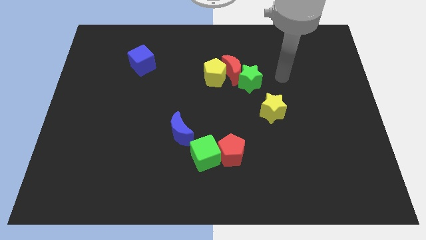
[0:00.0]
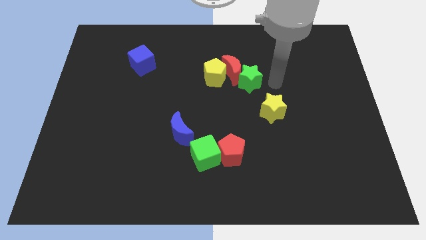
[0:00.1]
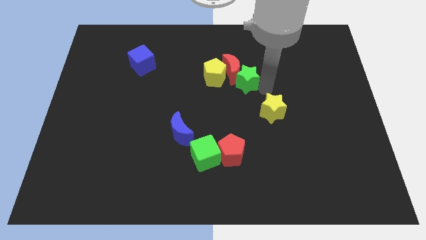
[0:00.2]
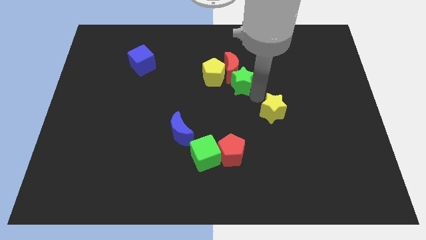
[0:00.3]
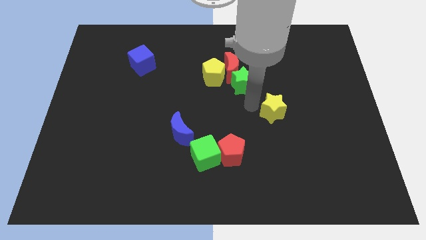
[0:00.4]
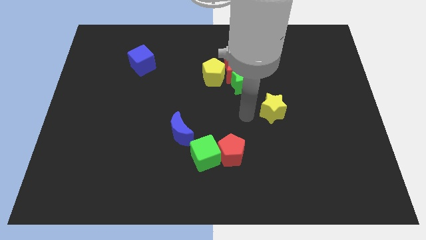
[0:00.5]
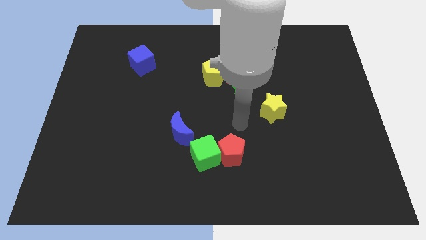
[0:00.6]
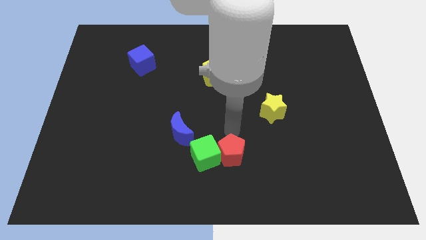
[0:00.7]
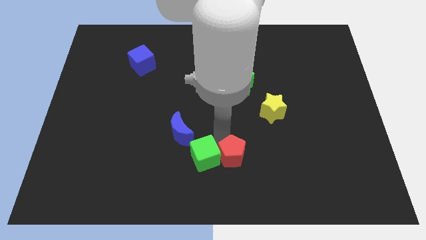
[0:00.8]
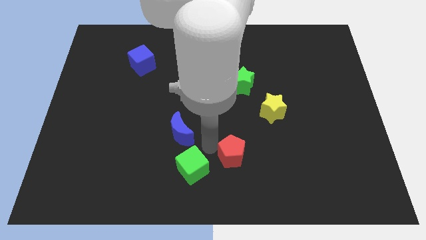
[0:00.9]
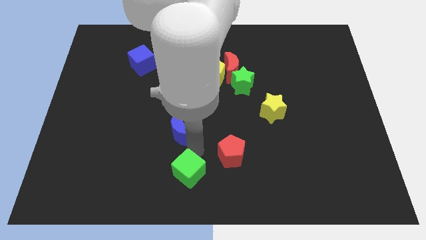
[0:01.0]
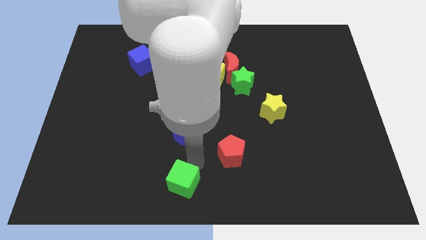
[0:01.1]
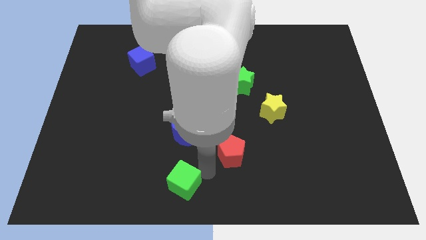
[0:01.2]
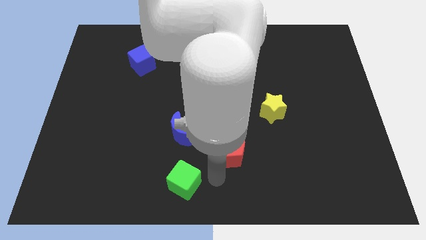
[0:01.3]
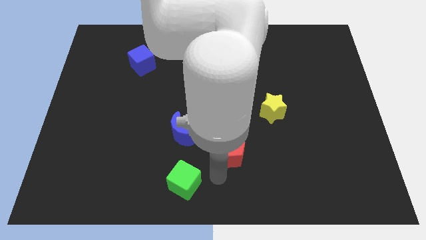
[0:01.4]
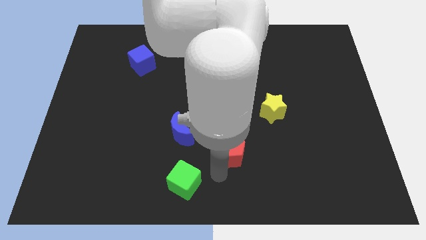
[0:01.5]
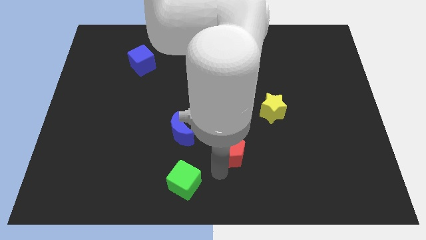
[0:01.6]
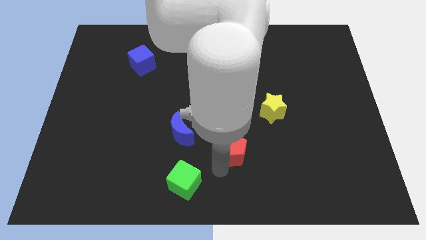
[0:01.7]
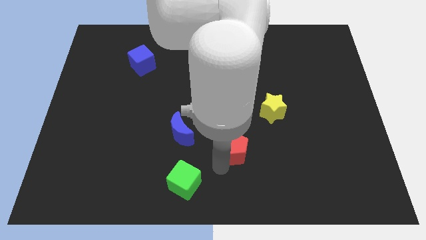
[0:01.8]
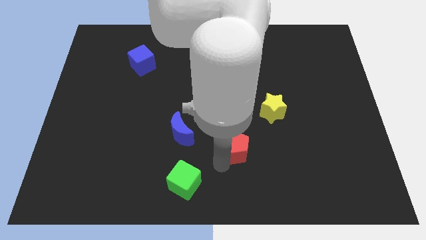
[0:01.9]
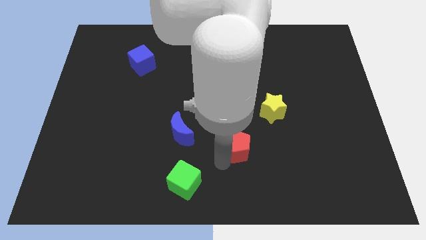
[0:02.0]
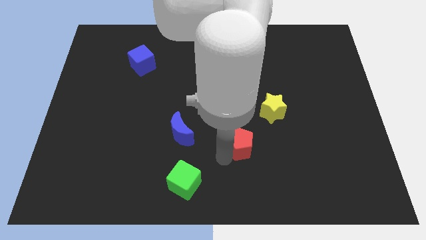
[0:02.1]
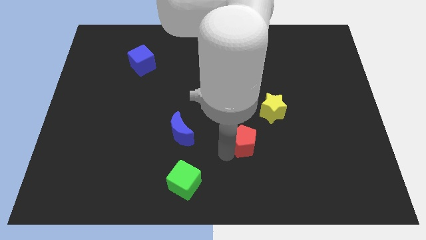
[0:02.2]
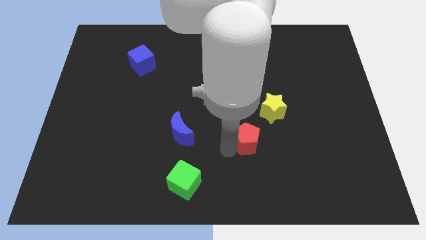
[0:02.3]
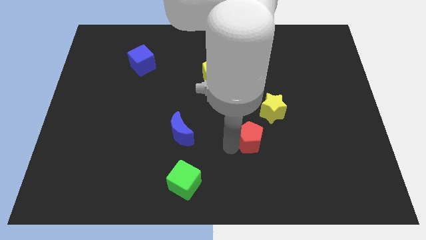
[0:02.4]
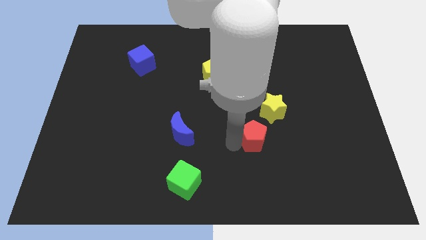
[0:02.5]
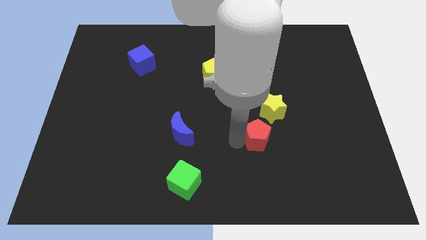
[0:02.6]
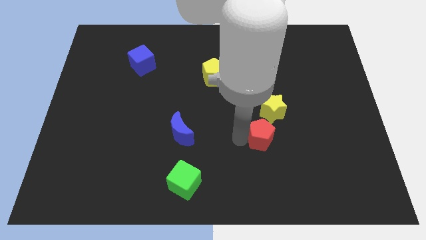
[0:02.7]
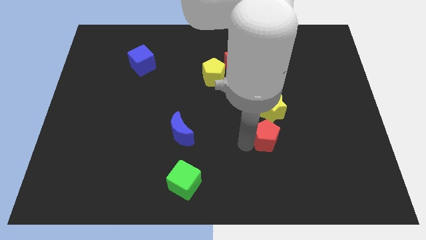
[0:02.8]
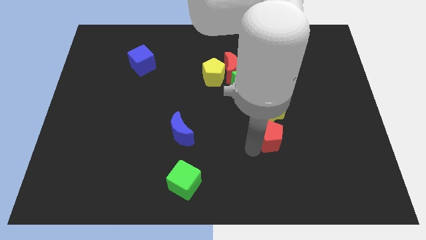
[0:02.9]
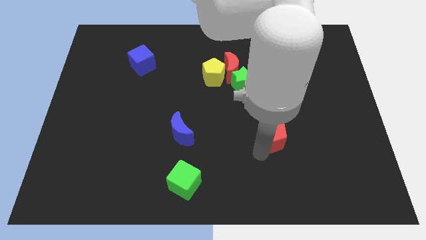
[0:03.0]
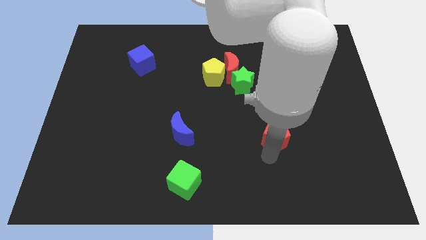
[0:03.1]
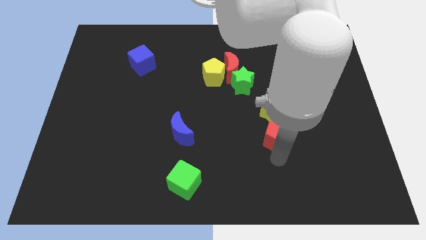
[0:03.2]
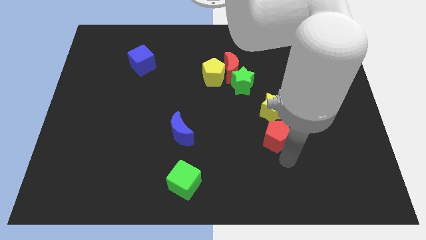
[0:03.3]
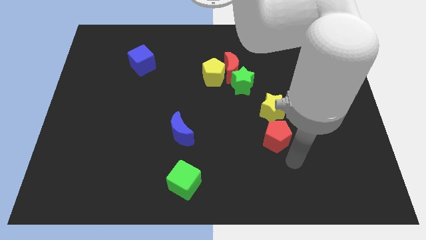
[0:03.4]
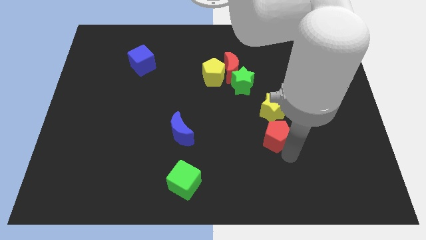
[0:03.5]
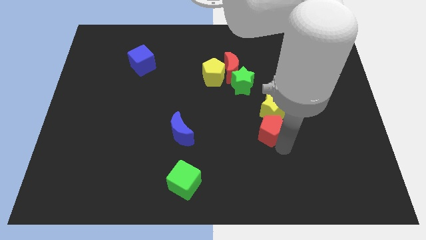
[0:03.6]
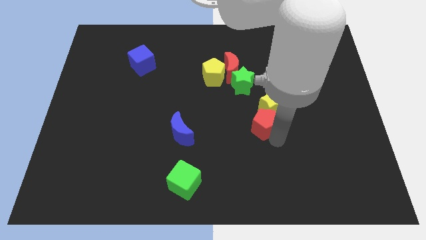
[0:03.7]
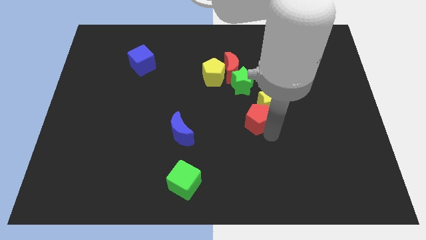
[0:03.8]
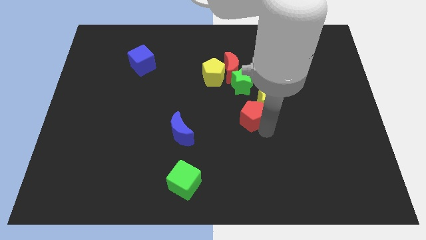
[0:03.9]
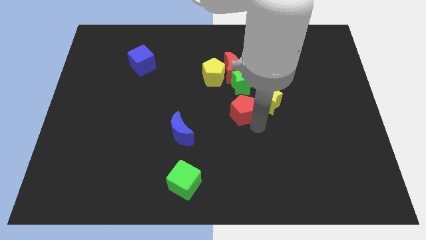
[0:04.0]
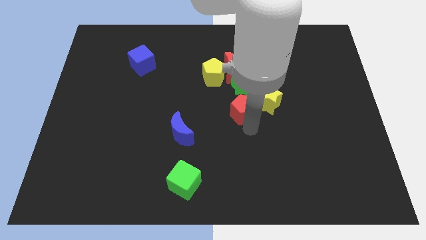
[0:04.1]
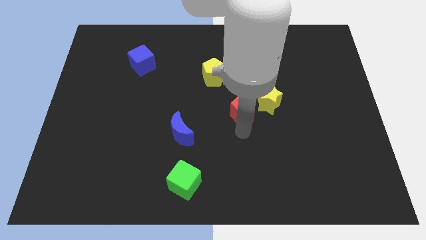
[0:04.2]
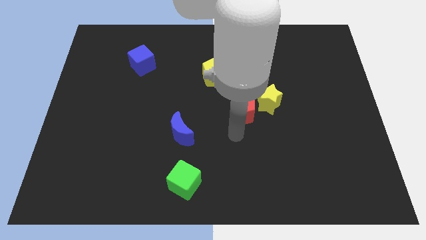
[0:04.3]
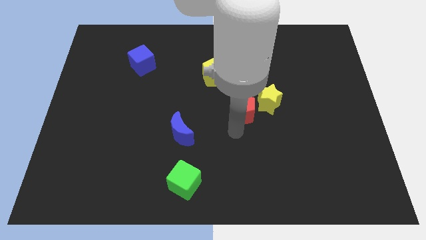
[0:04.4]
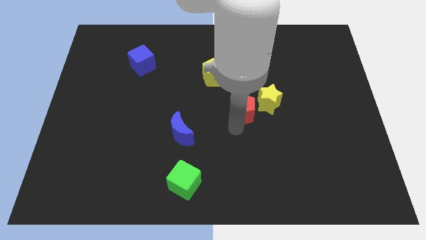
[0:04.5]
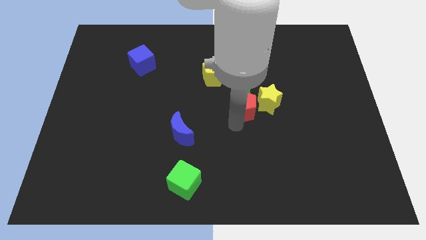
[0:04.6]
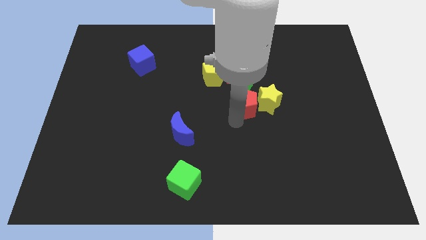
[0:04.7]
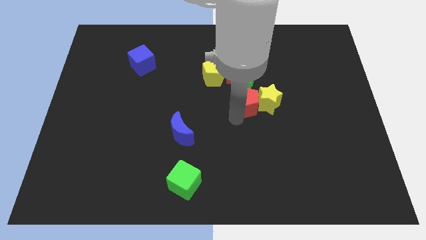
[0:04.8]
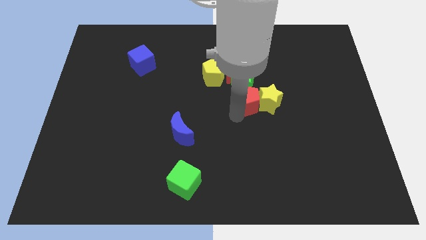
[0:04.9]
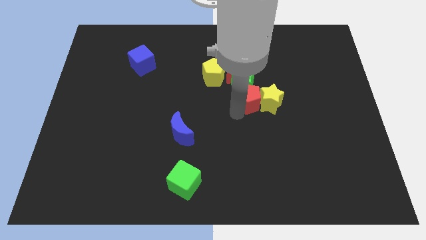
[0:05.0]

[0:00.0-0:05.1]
put the red pentagon to the bottom right side of the red moon

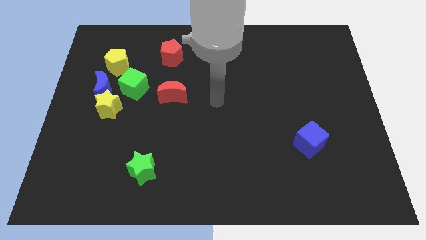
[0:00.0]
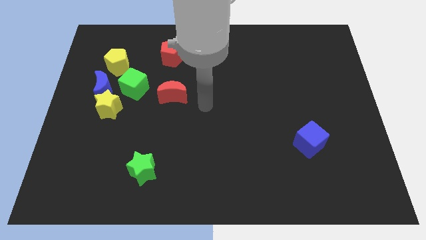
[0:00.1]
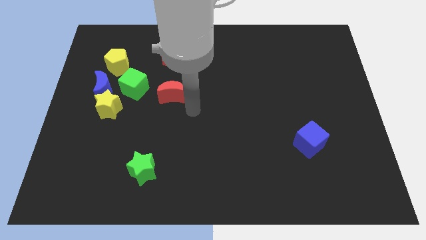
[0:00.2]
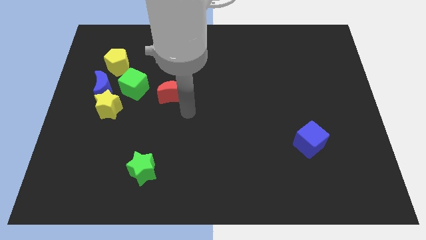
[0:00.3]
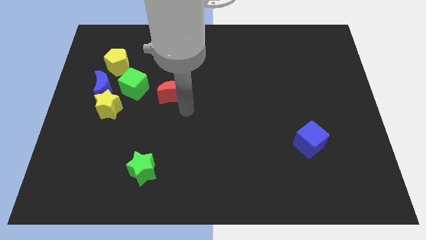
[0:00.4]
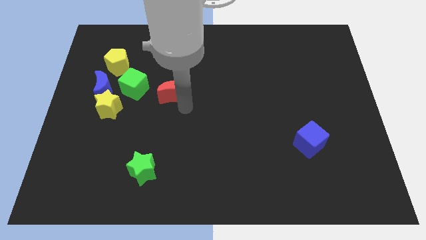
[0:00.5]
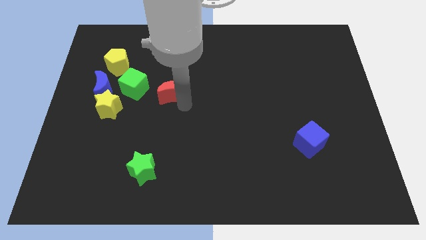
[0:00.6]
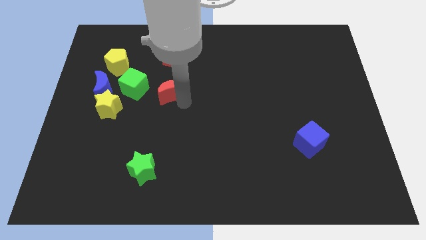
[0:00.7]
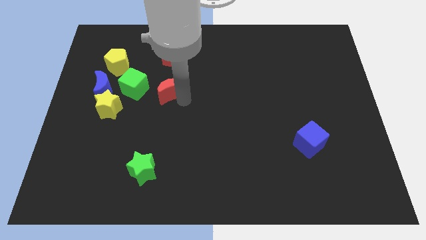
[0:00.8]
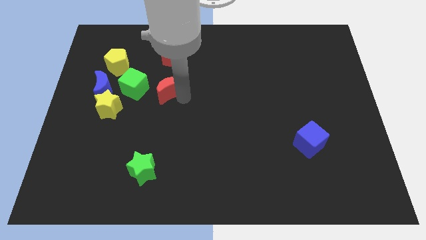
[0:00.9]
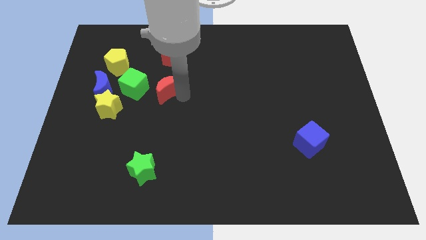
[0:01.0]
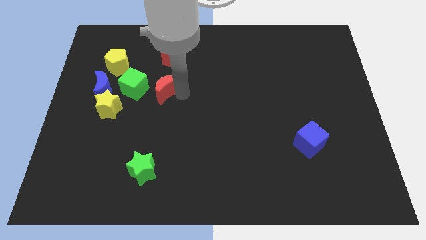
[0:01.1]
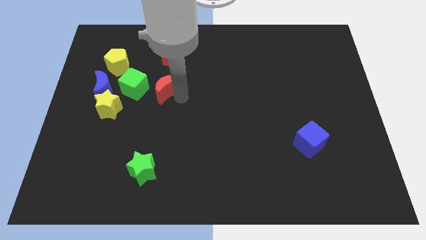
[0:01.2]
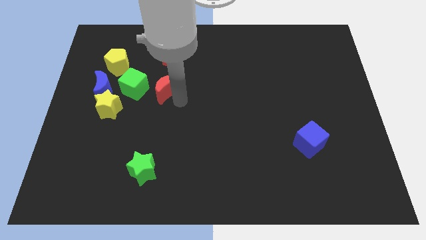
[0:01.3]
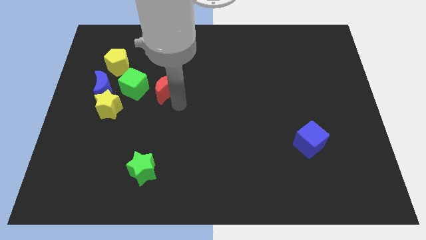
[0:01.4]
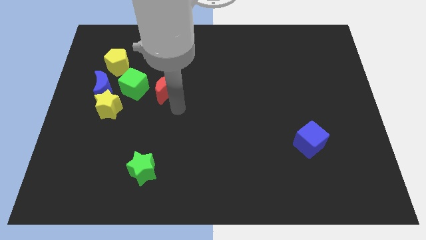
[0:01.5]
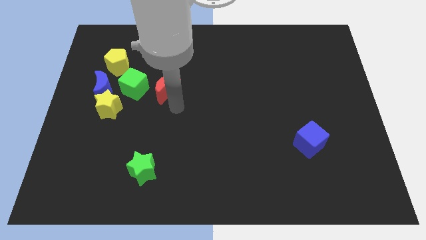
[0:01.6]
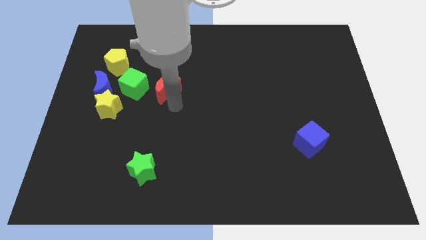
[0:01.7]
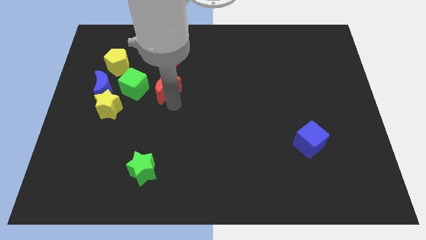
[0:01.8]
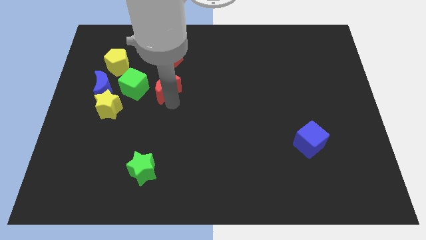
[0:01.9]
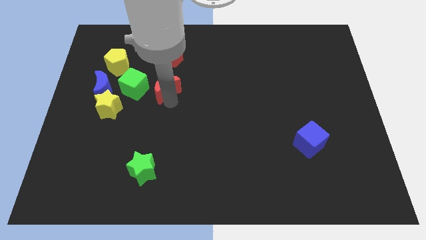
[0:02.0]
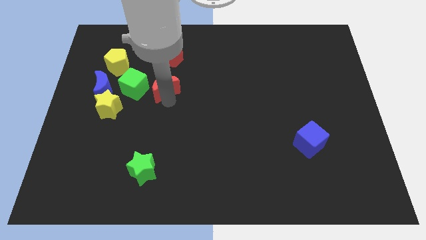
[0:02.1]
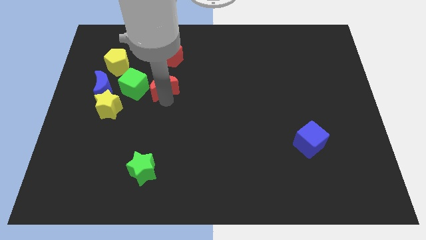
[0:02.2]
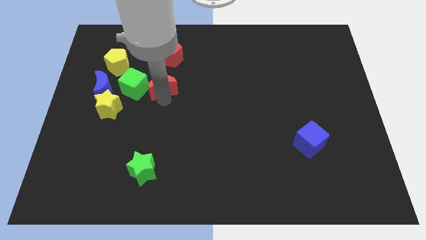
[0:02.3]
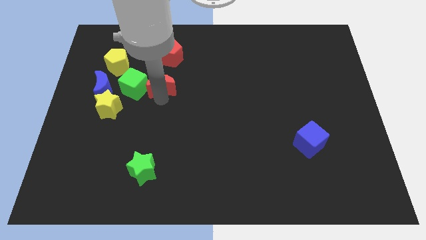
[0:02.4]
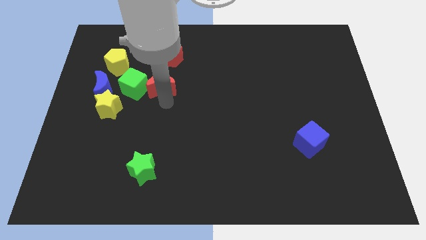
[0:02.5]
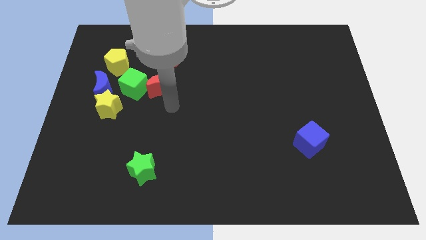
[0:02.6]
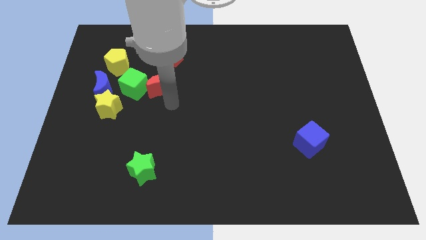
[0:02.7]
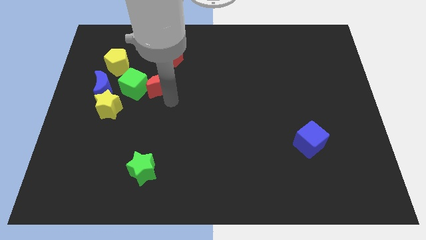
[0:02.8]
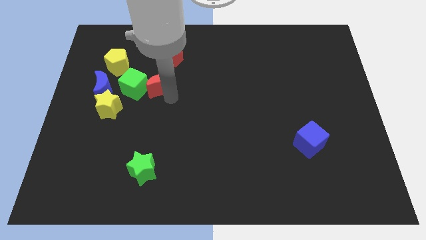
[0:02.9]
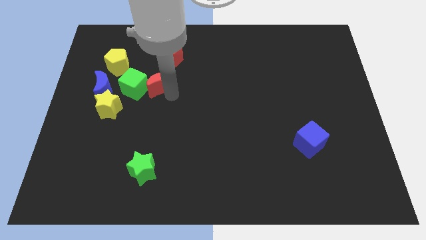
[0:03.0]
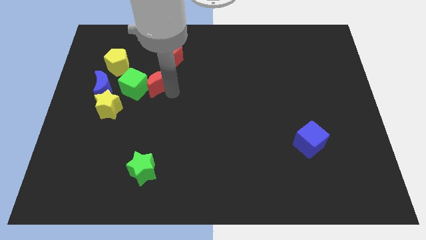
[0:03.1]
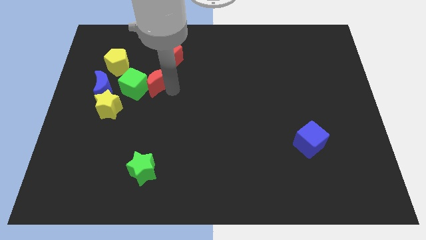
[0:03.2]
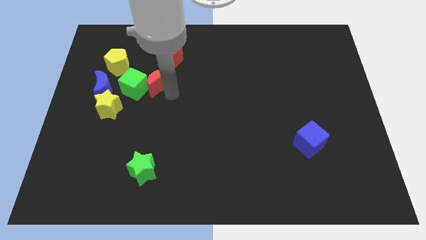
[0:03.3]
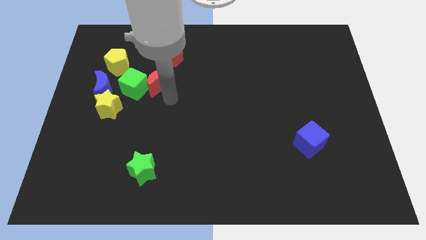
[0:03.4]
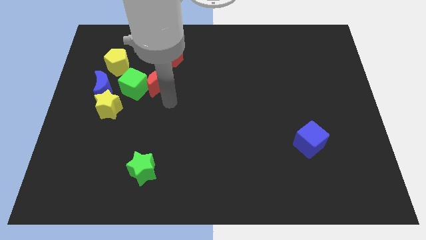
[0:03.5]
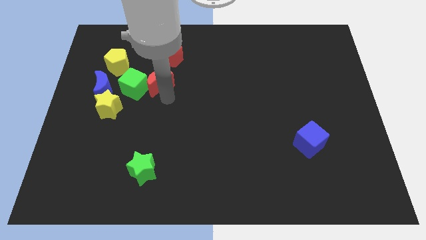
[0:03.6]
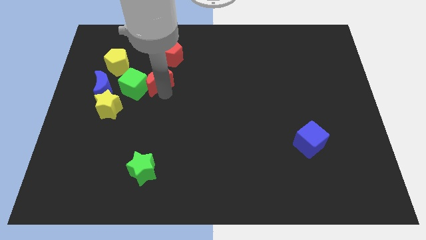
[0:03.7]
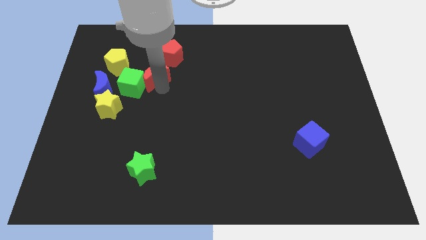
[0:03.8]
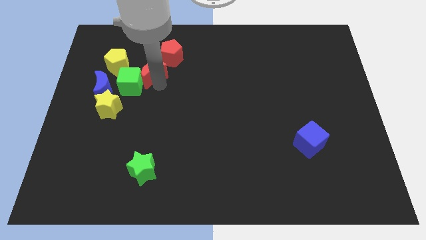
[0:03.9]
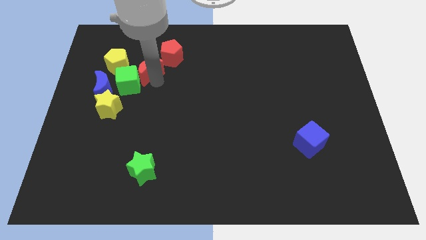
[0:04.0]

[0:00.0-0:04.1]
push the red moon above the green cube
